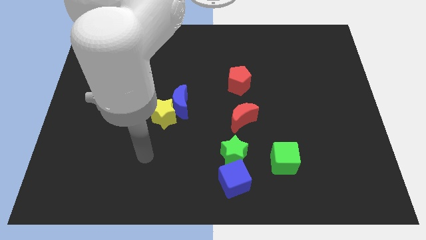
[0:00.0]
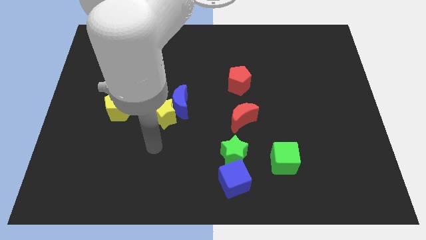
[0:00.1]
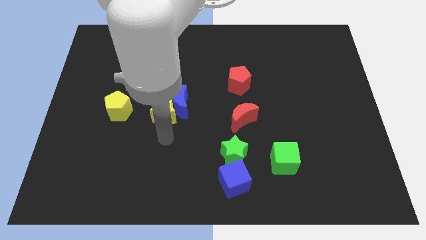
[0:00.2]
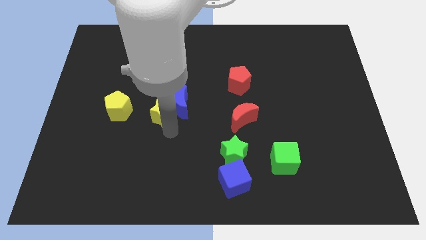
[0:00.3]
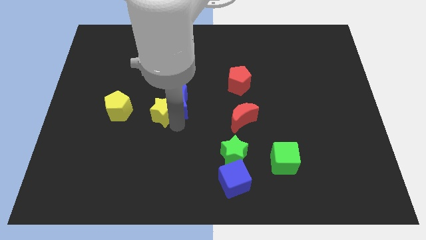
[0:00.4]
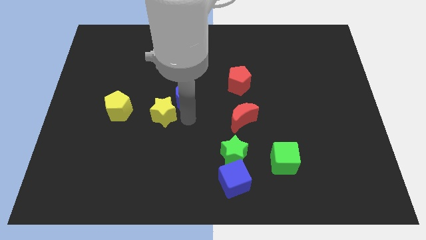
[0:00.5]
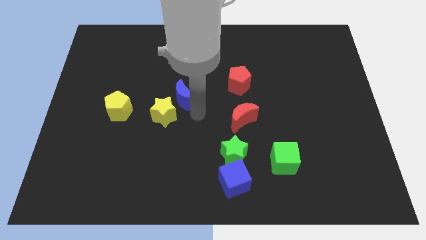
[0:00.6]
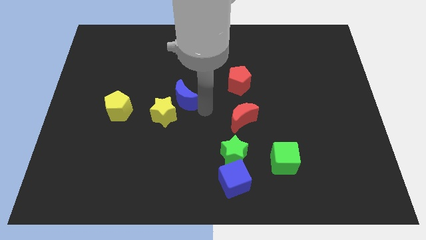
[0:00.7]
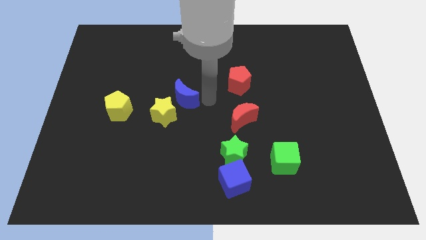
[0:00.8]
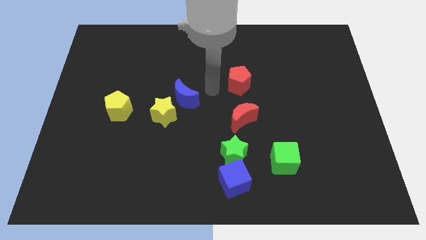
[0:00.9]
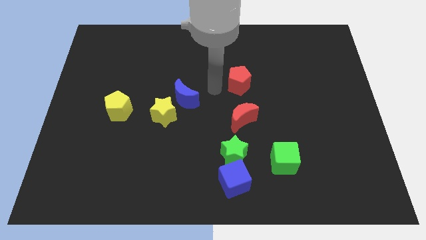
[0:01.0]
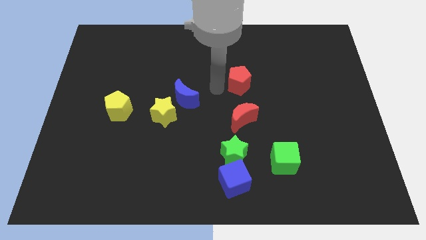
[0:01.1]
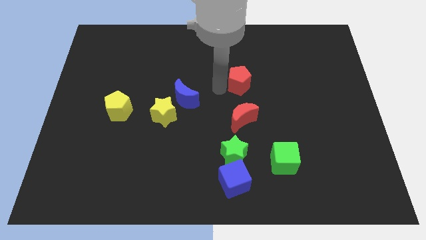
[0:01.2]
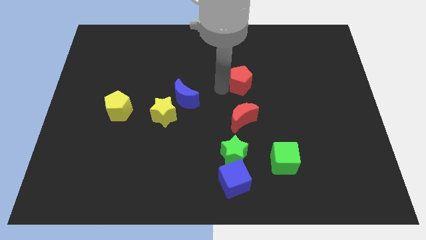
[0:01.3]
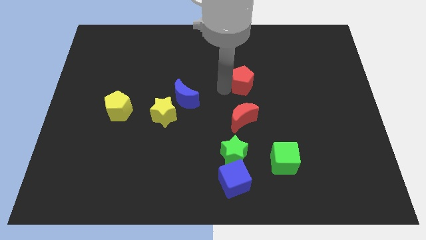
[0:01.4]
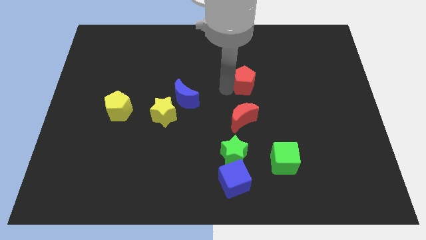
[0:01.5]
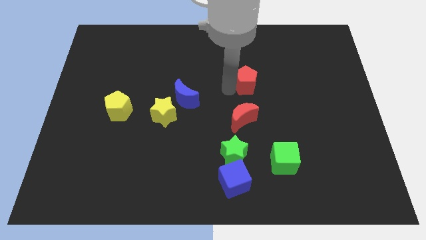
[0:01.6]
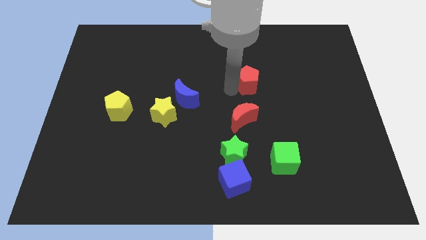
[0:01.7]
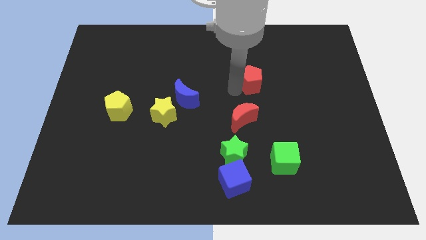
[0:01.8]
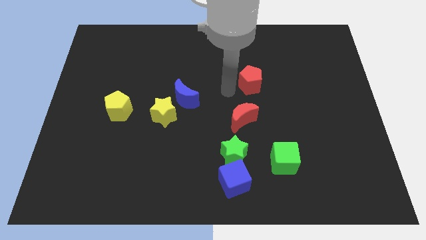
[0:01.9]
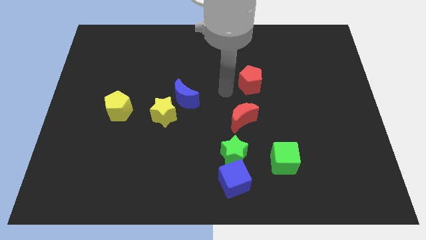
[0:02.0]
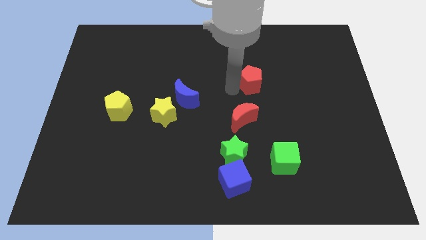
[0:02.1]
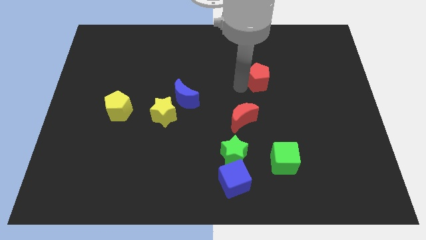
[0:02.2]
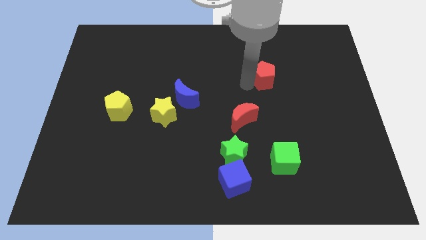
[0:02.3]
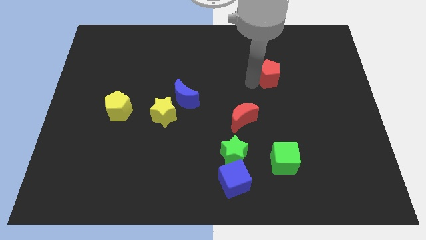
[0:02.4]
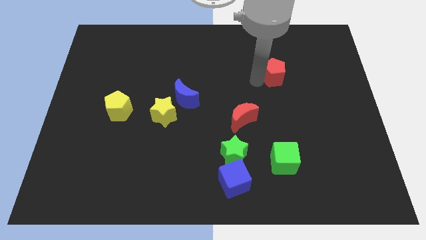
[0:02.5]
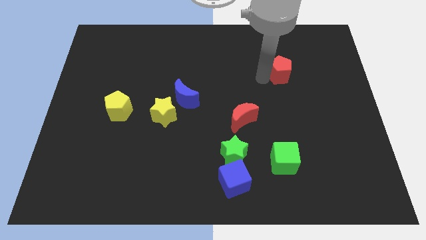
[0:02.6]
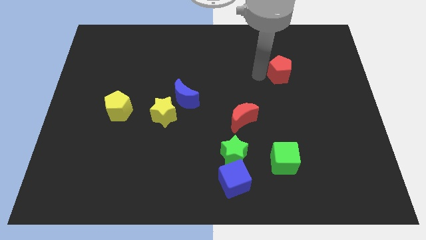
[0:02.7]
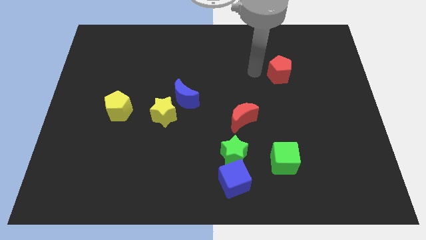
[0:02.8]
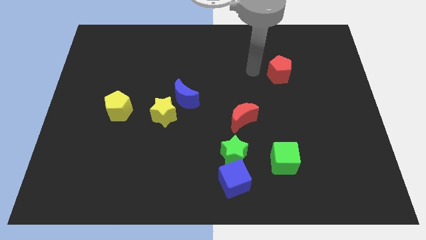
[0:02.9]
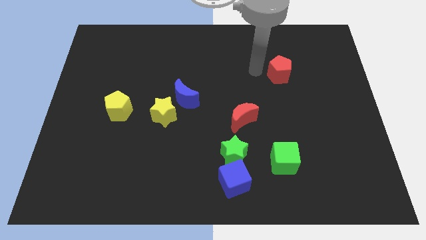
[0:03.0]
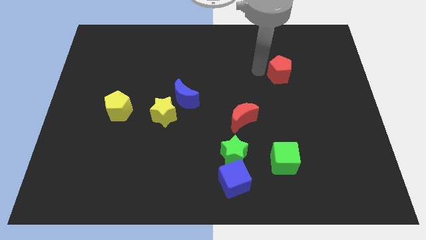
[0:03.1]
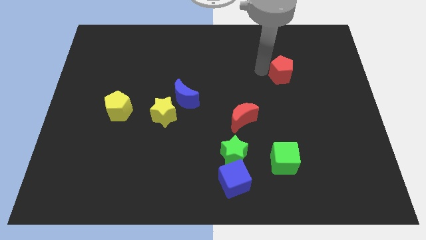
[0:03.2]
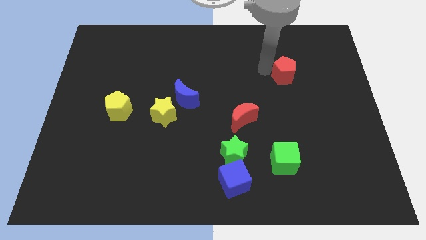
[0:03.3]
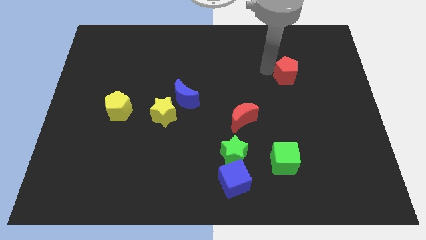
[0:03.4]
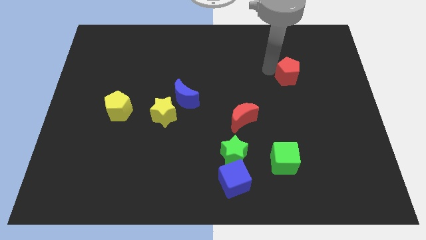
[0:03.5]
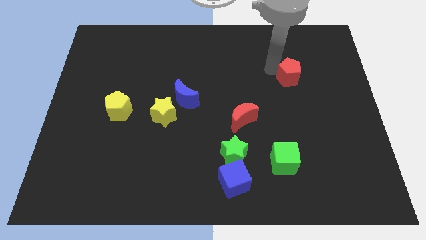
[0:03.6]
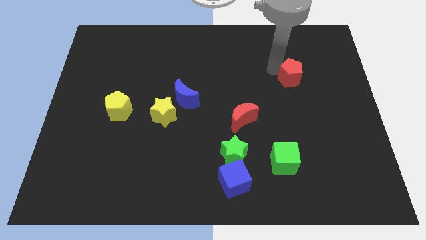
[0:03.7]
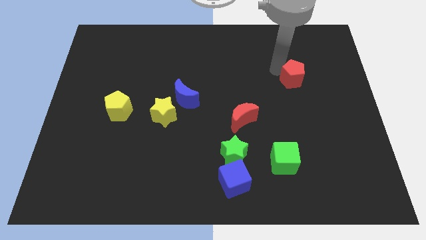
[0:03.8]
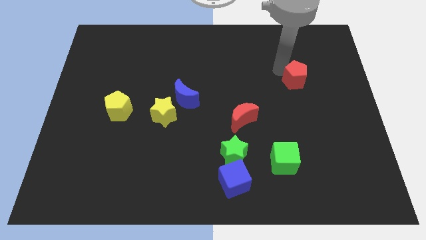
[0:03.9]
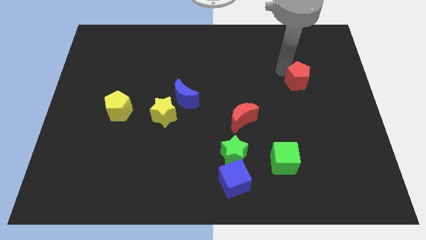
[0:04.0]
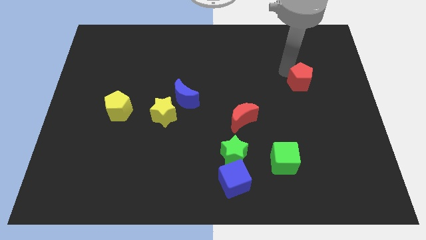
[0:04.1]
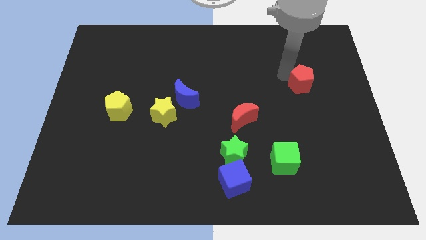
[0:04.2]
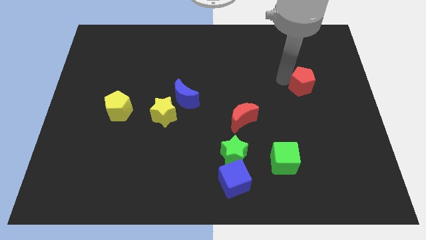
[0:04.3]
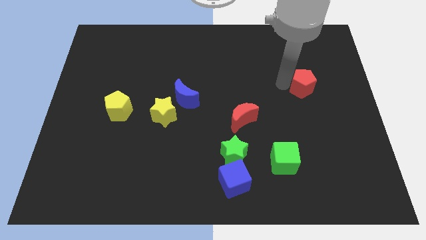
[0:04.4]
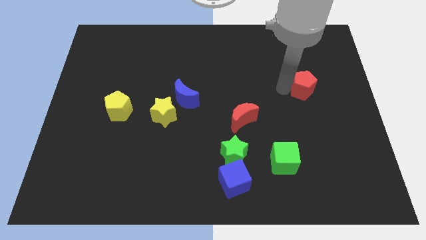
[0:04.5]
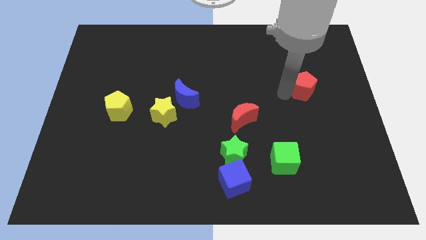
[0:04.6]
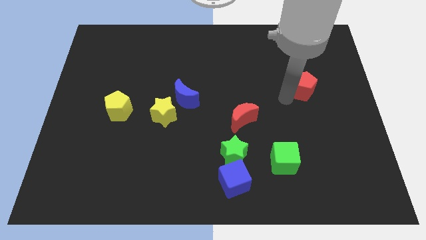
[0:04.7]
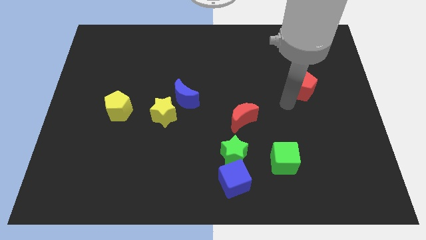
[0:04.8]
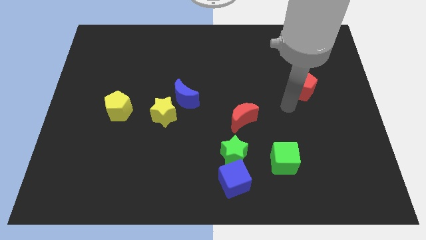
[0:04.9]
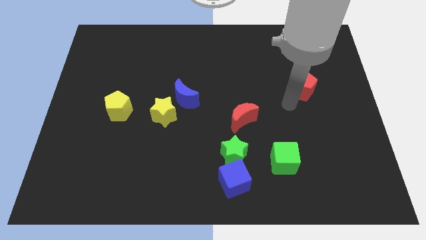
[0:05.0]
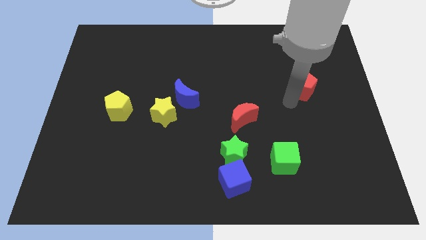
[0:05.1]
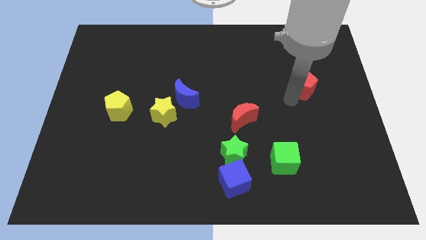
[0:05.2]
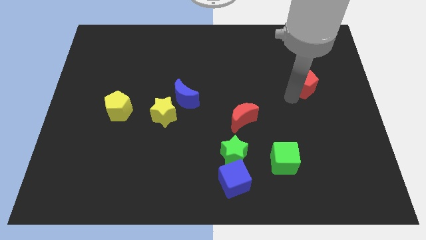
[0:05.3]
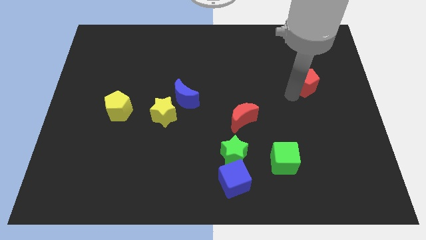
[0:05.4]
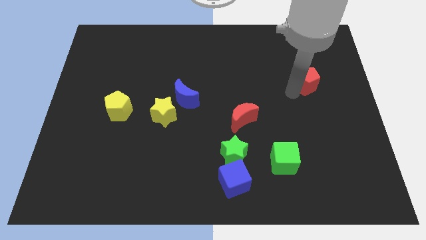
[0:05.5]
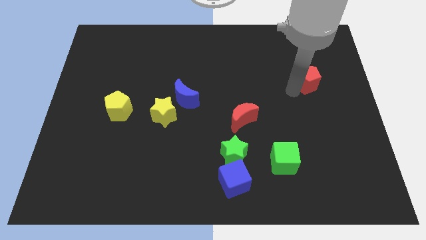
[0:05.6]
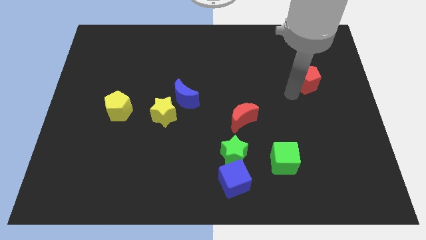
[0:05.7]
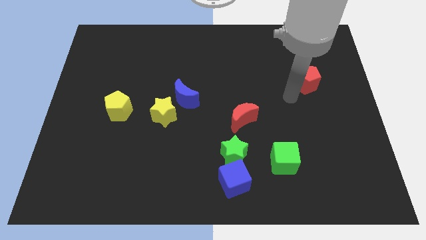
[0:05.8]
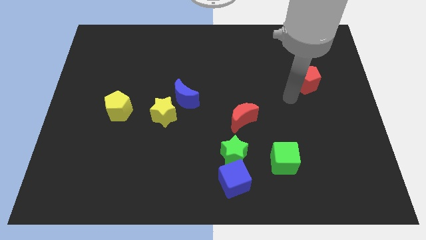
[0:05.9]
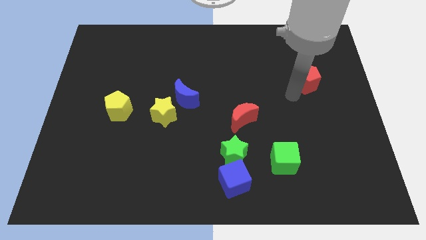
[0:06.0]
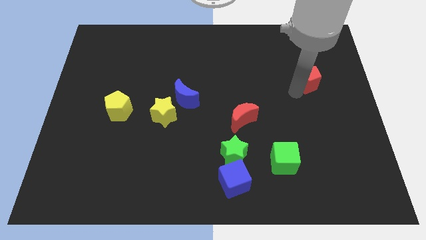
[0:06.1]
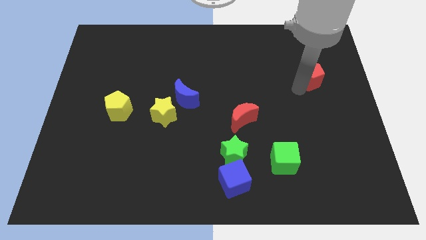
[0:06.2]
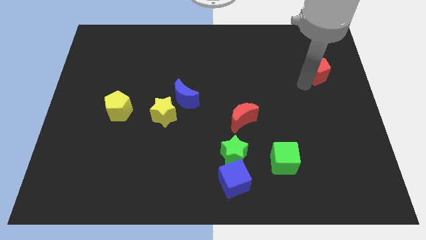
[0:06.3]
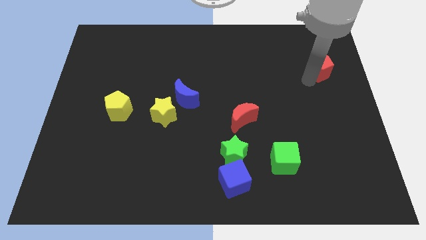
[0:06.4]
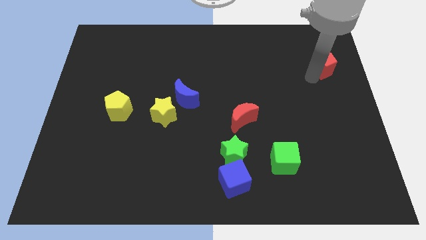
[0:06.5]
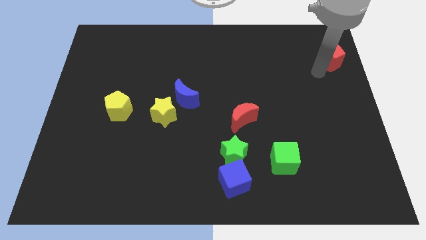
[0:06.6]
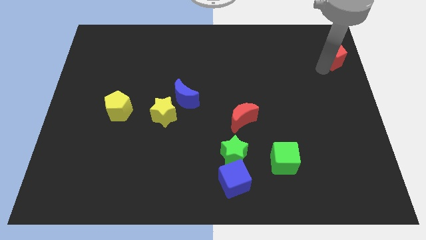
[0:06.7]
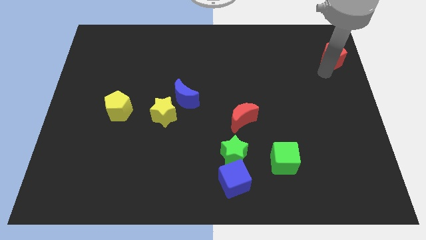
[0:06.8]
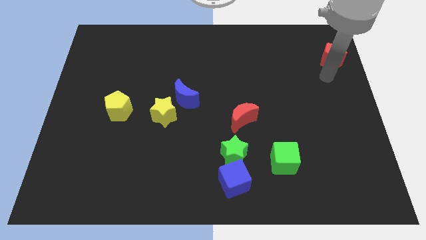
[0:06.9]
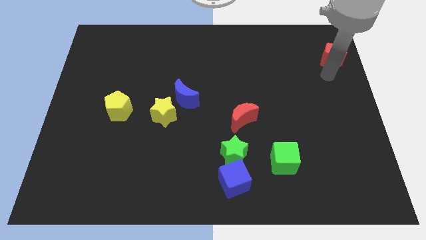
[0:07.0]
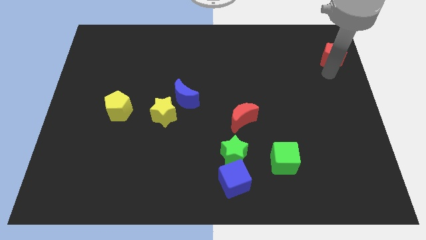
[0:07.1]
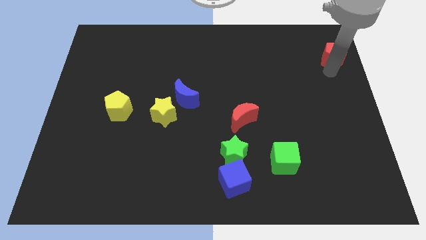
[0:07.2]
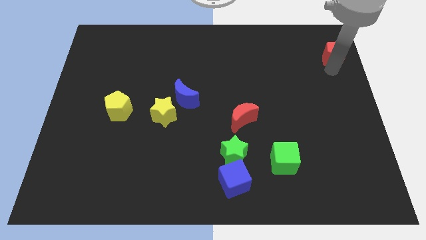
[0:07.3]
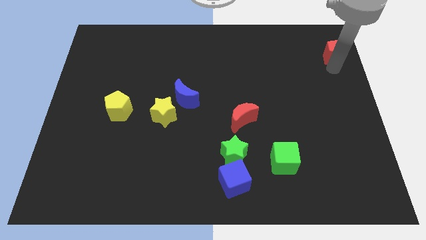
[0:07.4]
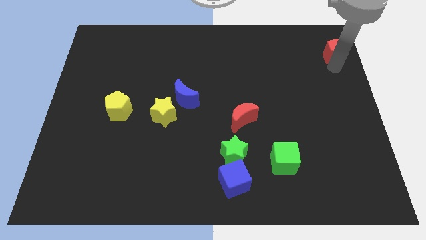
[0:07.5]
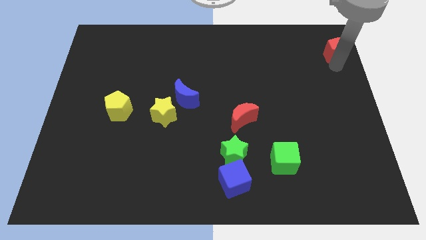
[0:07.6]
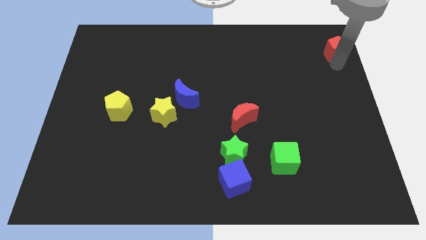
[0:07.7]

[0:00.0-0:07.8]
move the red pentagon to the top right of the board
